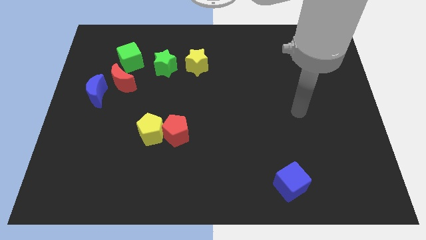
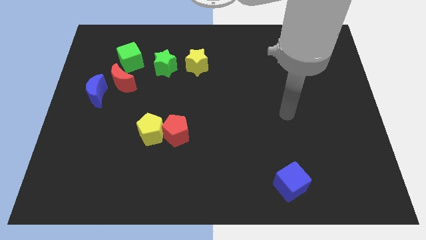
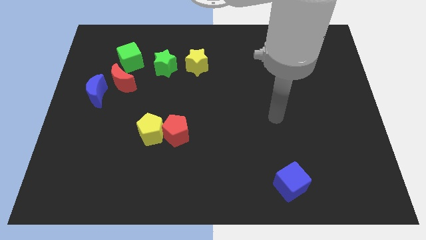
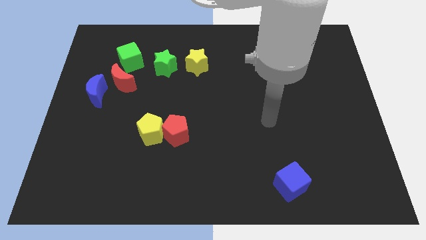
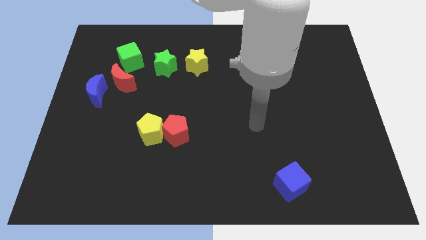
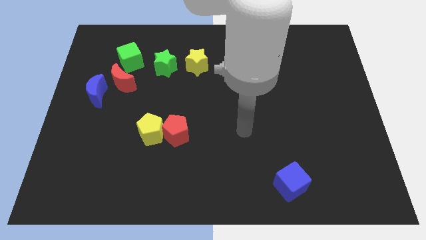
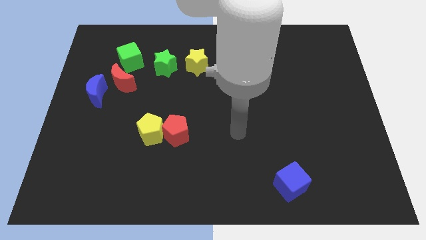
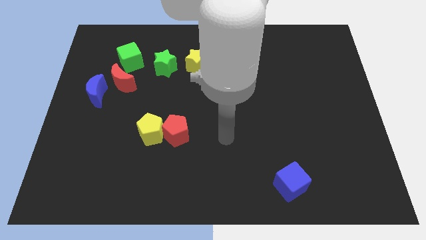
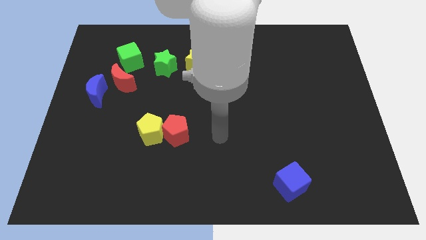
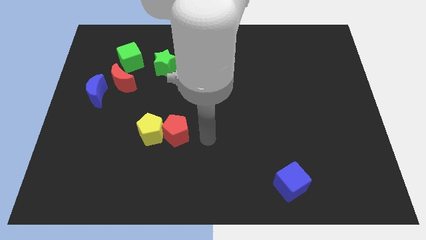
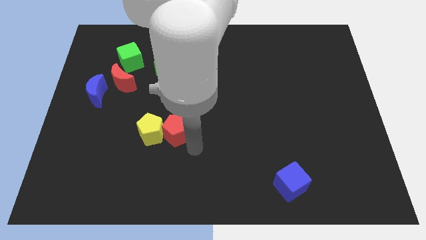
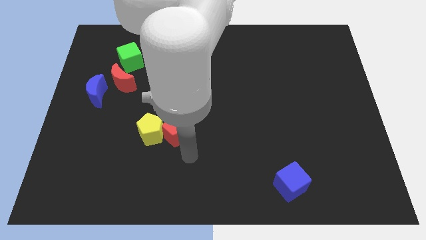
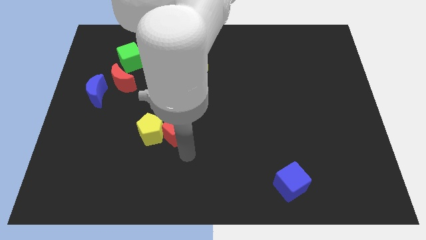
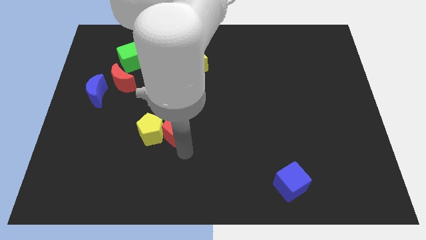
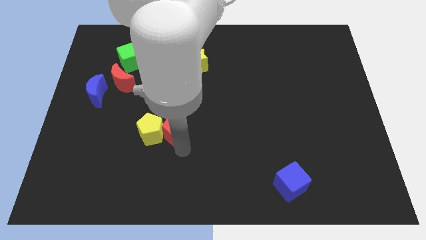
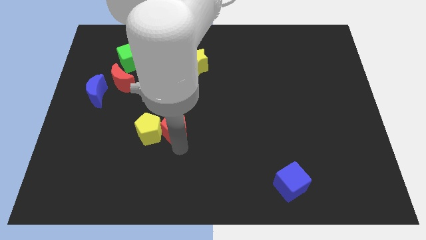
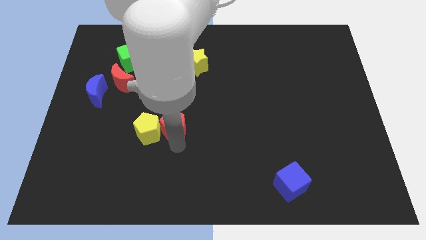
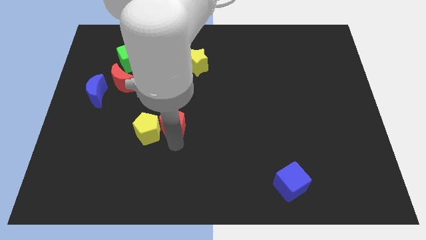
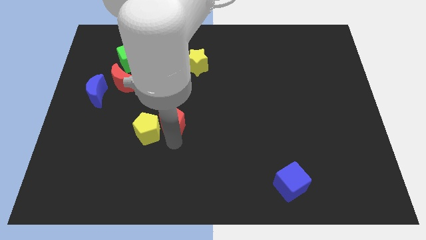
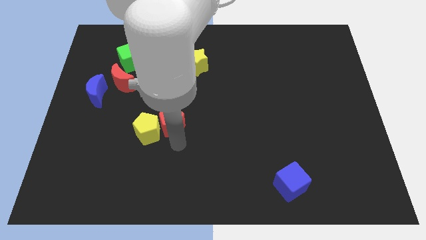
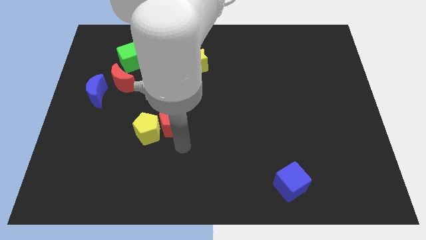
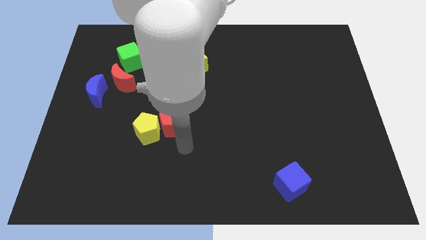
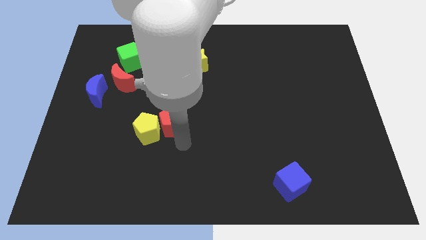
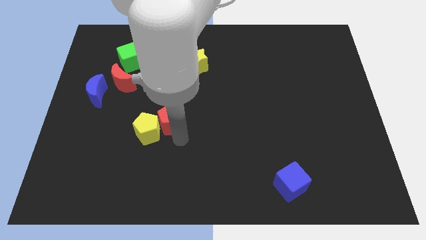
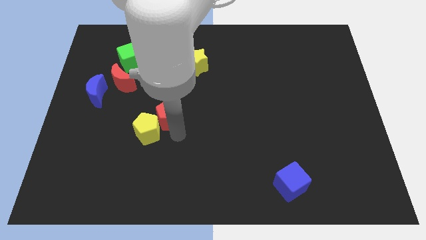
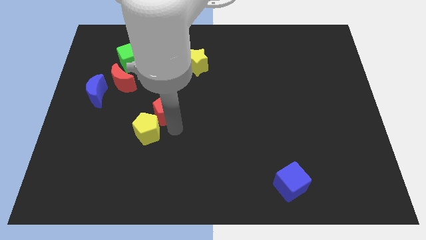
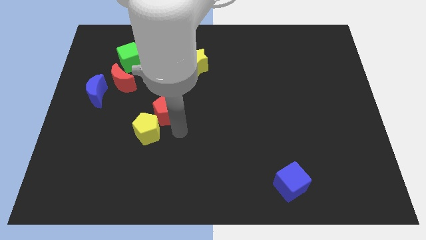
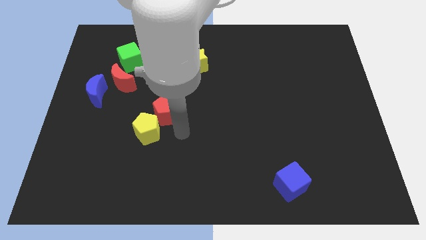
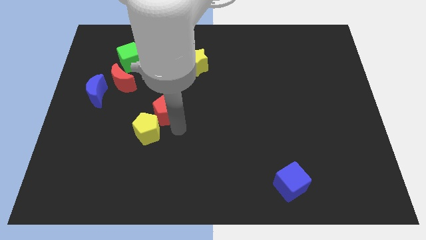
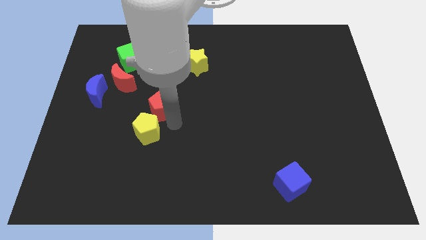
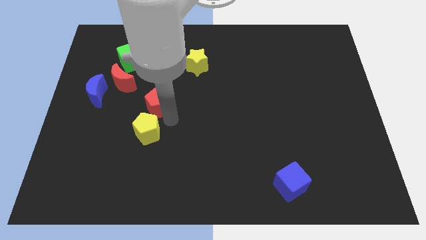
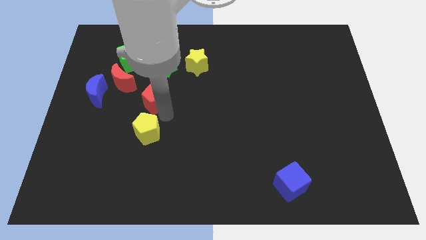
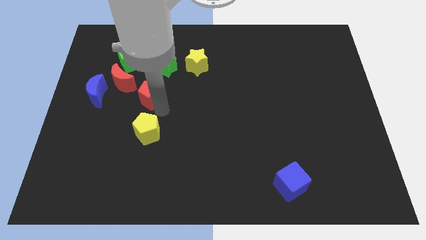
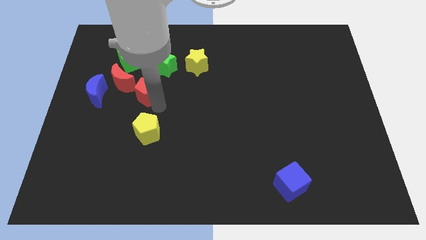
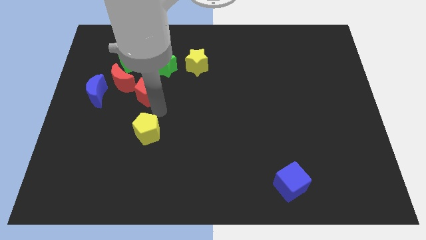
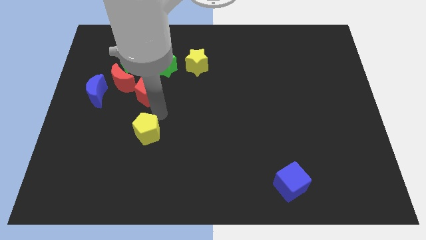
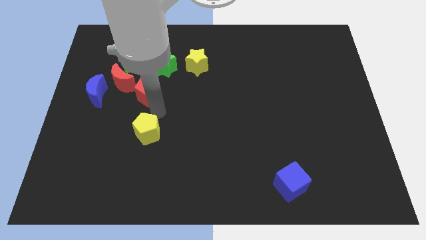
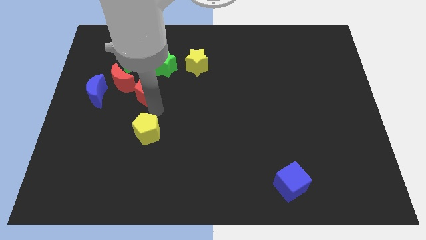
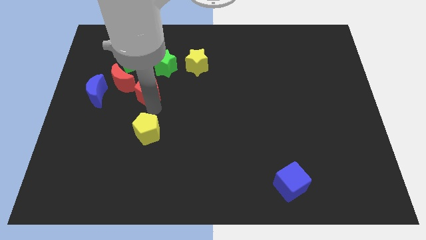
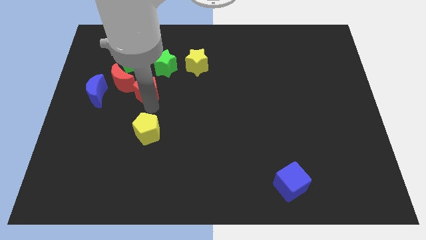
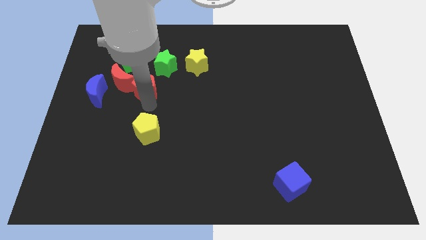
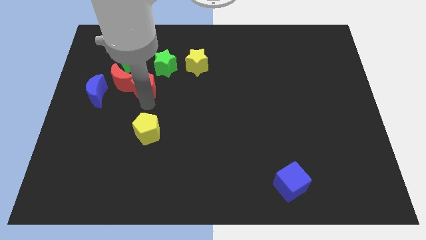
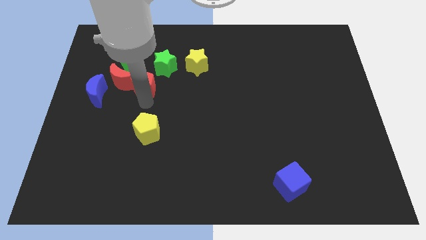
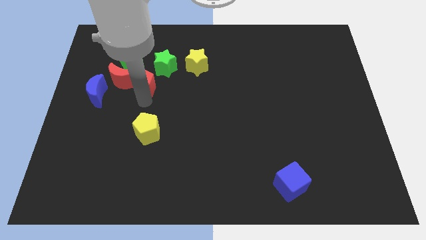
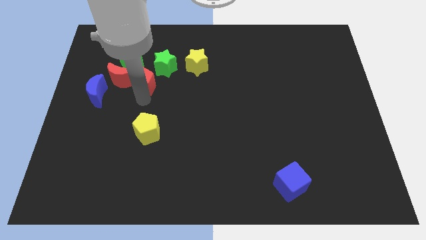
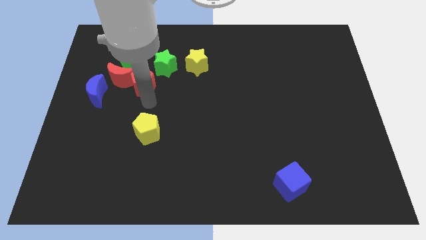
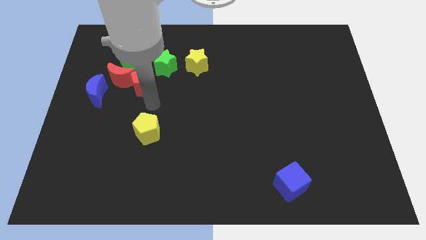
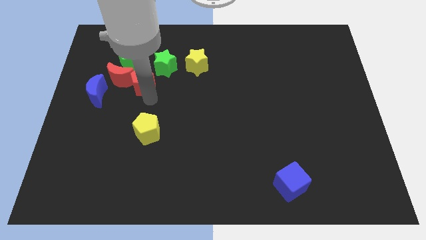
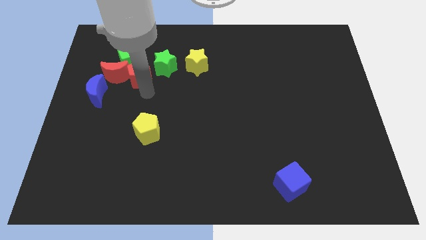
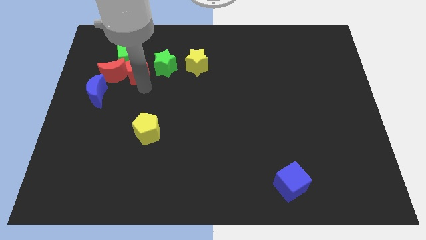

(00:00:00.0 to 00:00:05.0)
push the red pentagon to the green cube

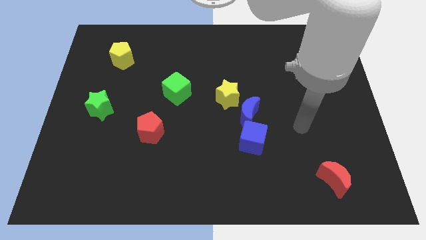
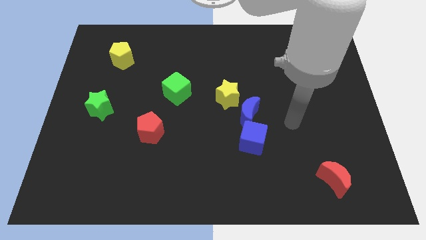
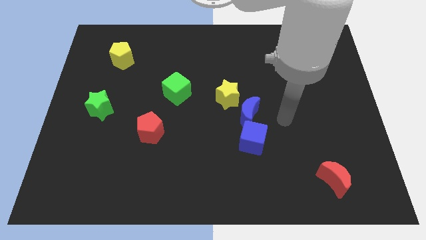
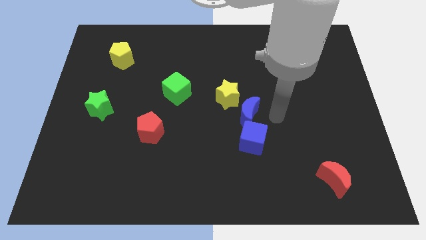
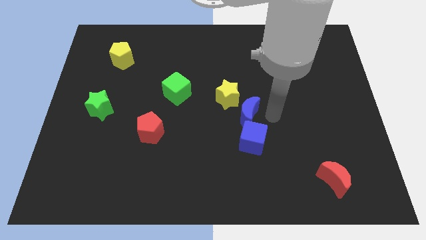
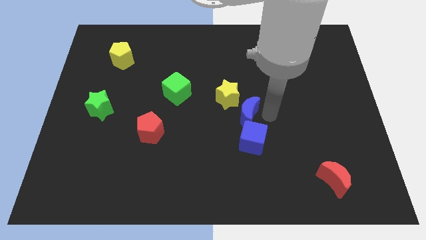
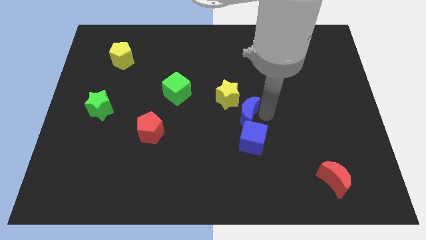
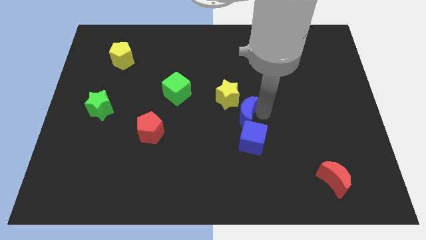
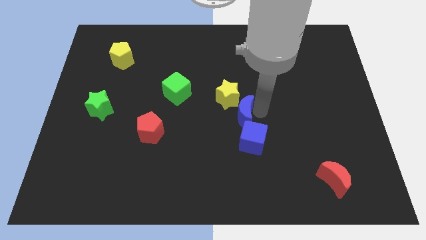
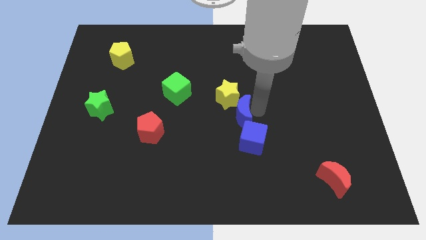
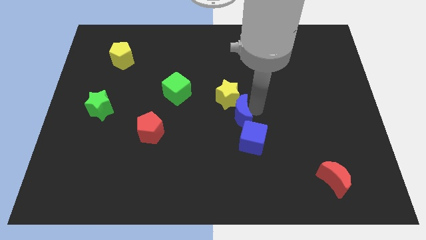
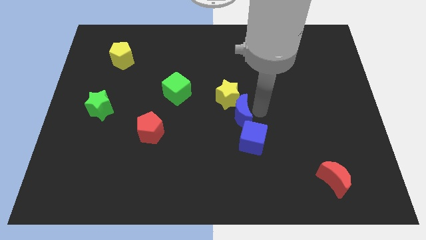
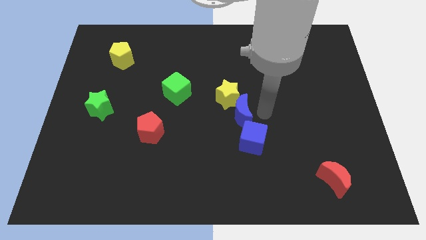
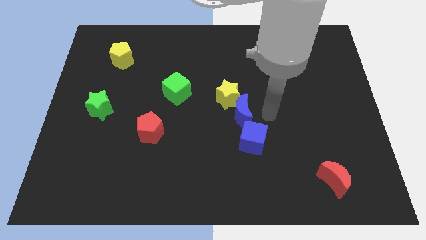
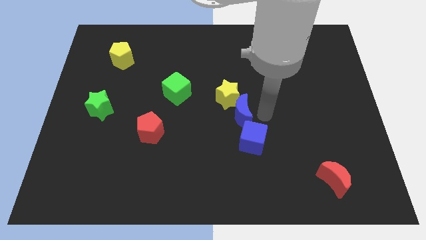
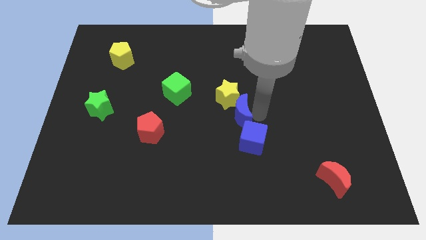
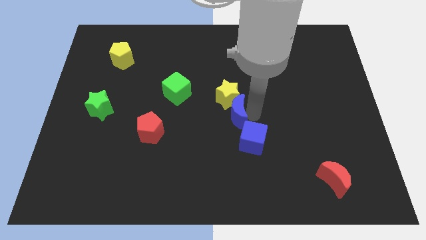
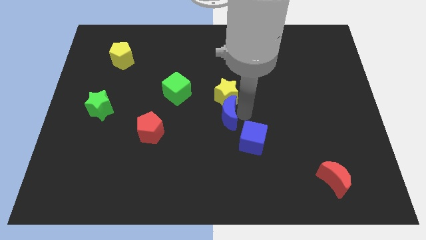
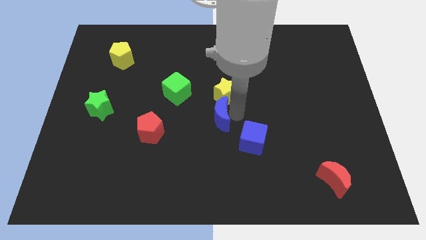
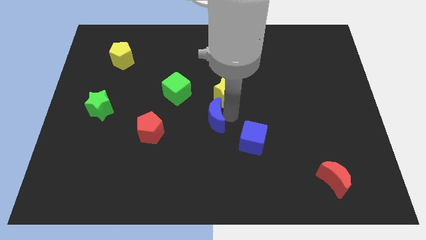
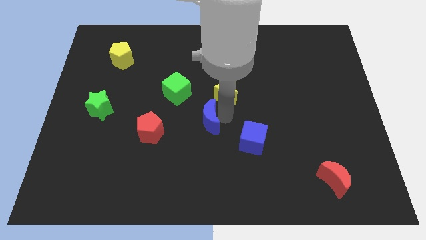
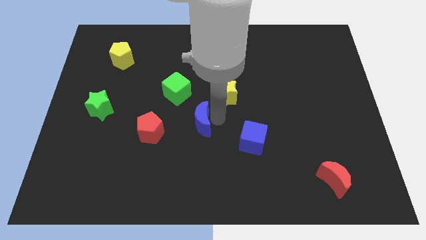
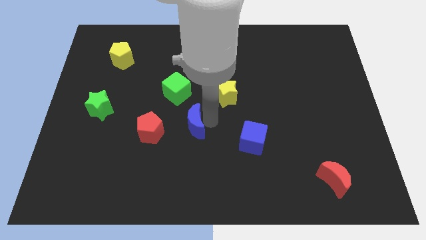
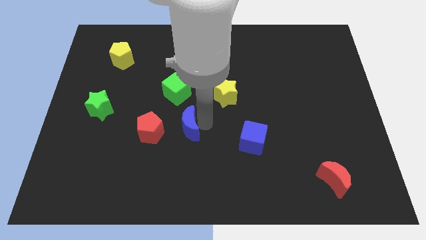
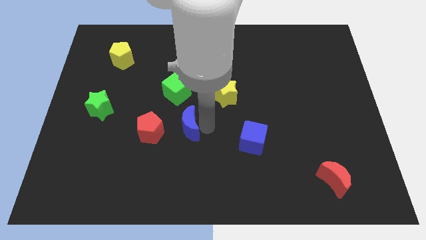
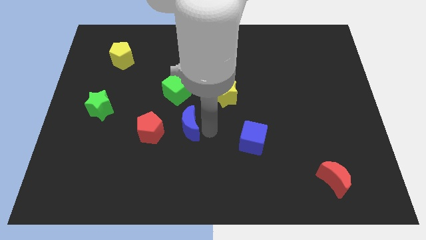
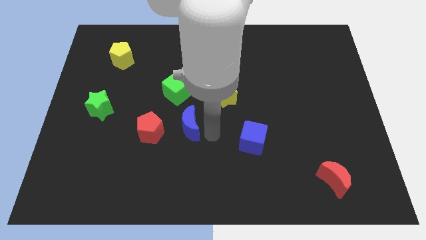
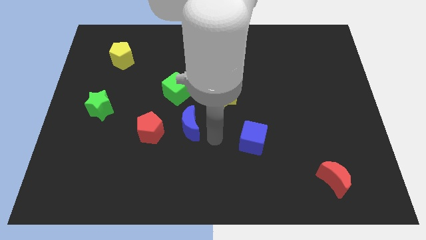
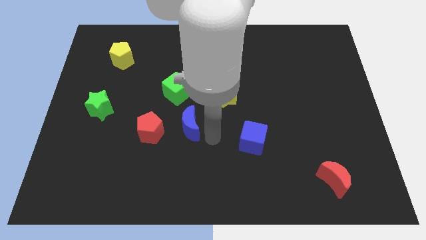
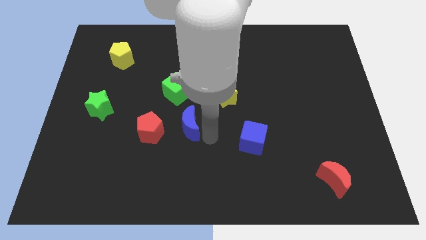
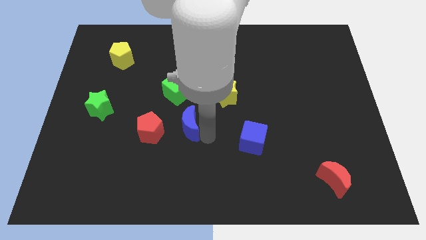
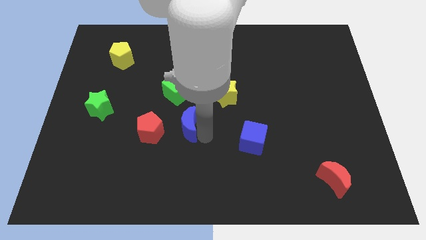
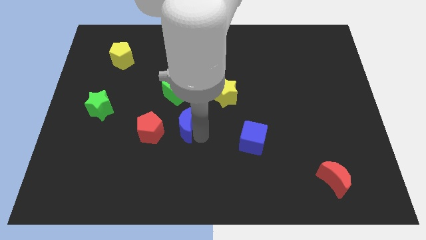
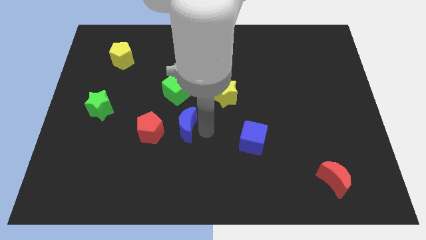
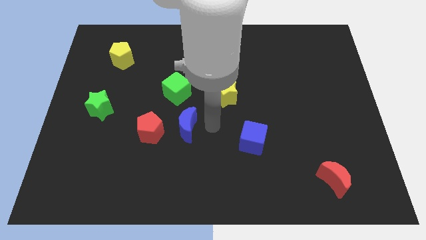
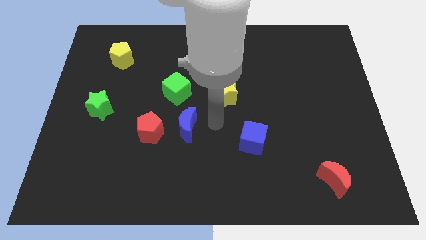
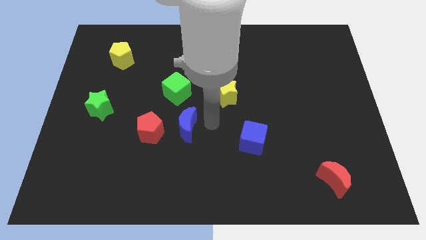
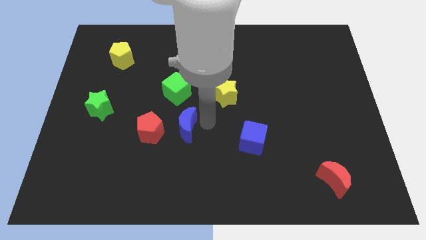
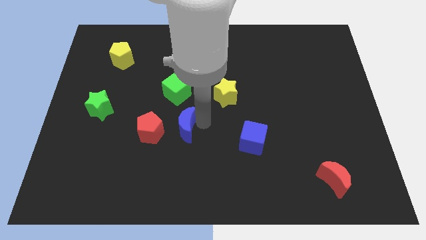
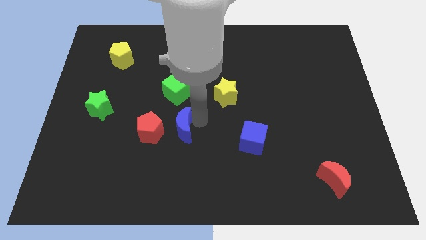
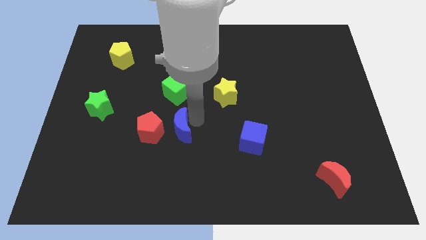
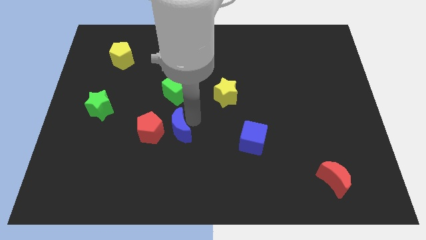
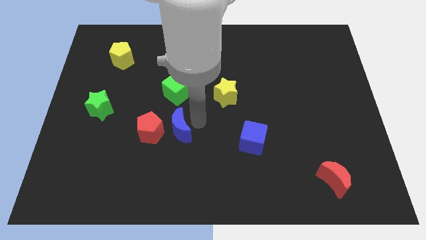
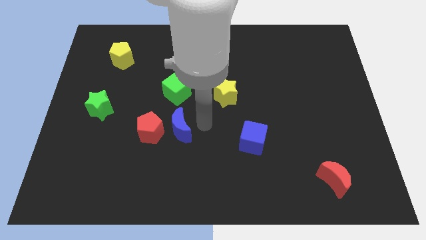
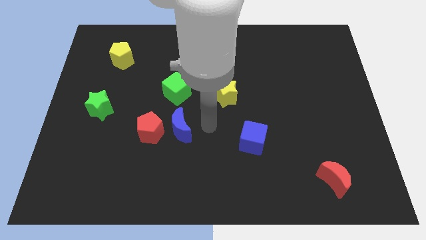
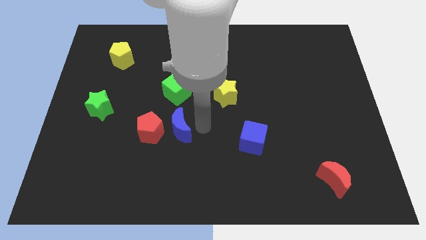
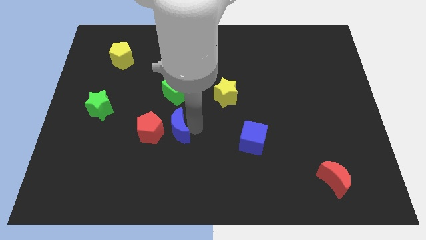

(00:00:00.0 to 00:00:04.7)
move the blue moon next to the red pentagon
